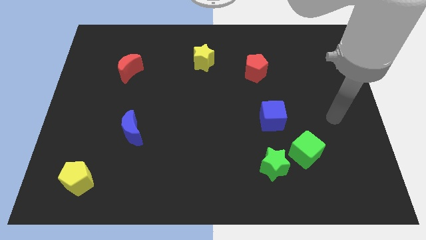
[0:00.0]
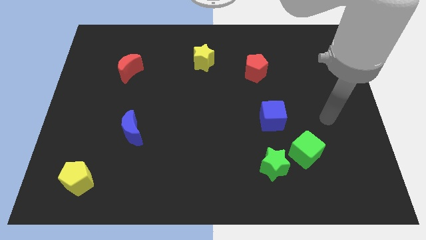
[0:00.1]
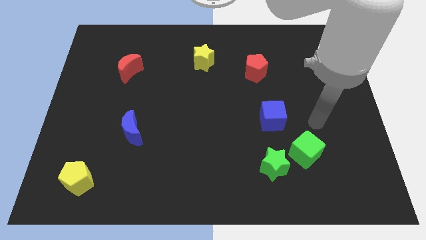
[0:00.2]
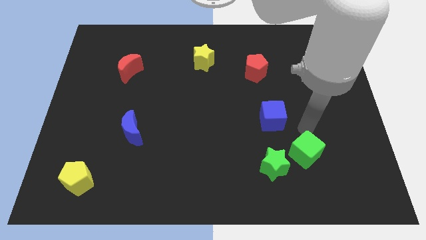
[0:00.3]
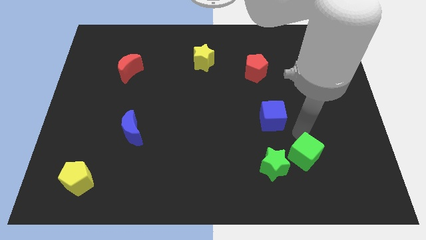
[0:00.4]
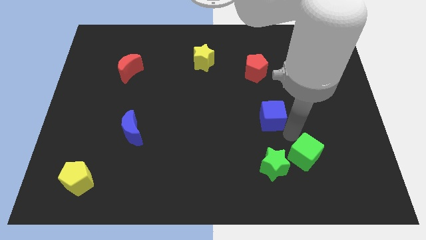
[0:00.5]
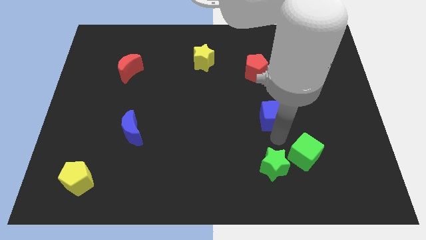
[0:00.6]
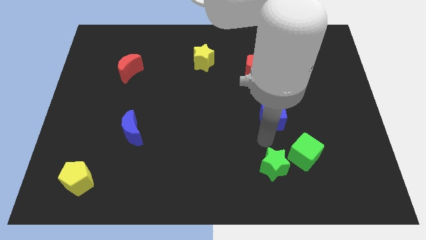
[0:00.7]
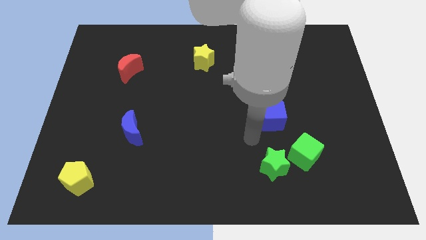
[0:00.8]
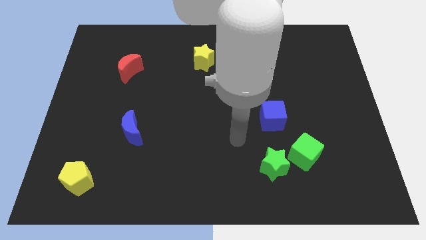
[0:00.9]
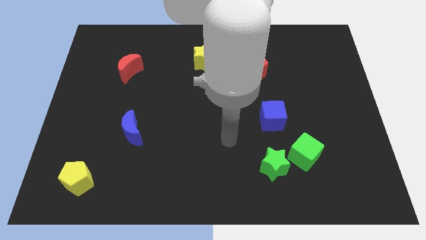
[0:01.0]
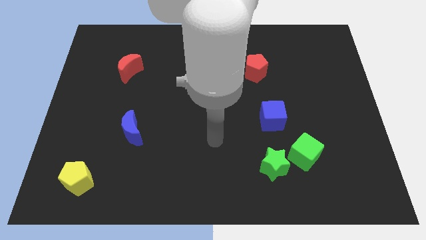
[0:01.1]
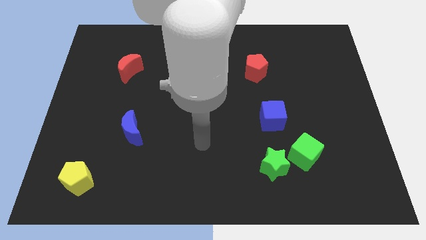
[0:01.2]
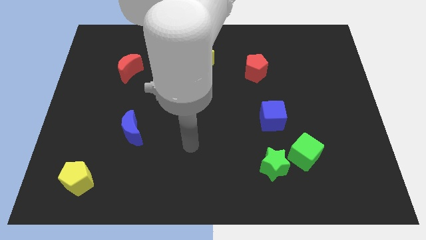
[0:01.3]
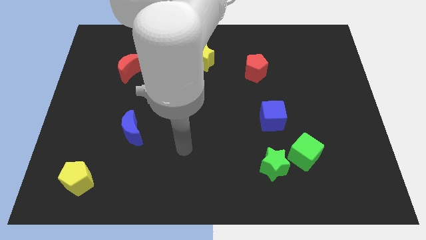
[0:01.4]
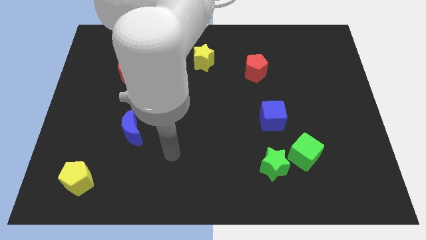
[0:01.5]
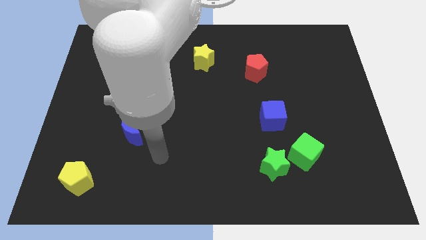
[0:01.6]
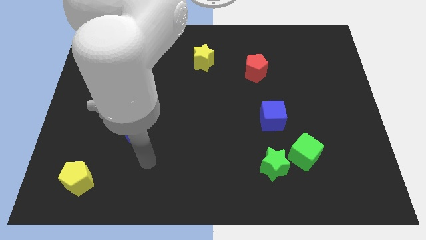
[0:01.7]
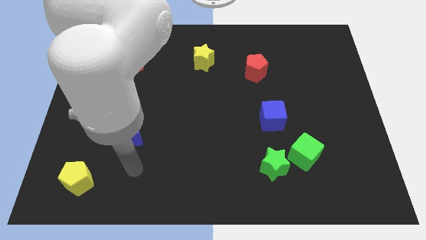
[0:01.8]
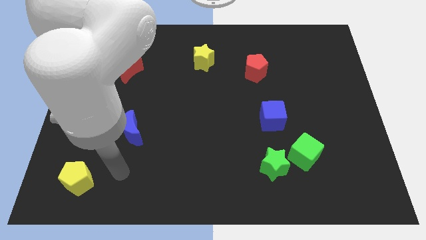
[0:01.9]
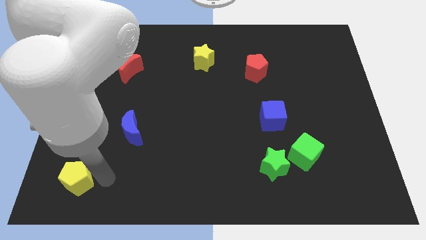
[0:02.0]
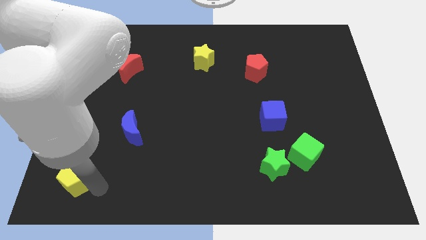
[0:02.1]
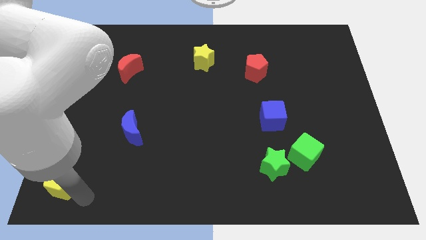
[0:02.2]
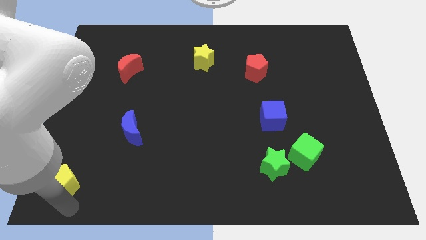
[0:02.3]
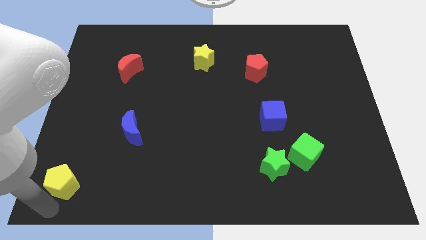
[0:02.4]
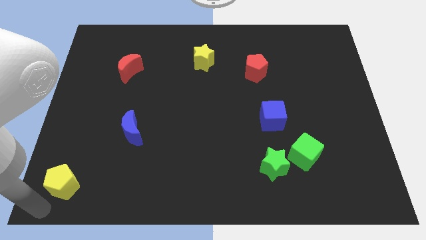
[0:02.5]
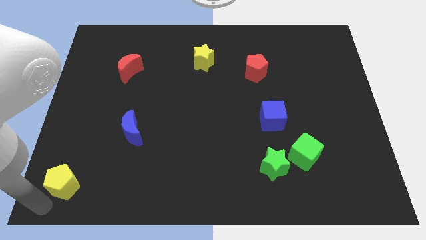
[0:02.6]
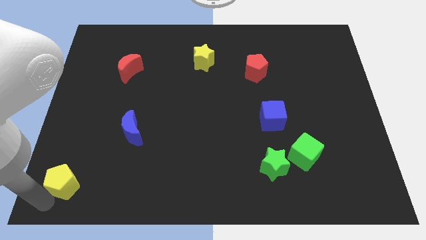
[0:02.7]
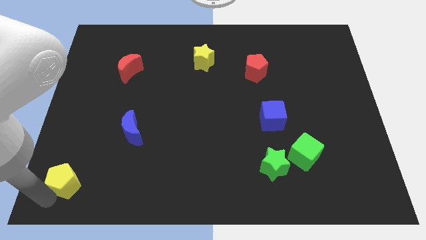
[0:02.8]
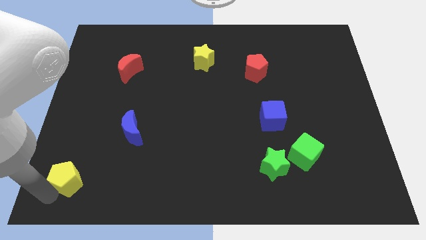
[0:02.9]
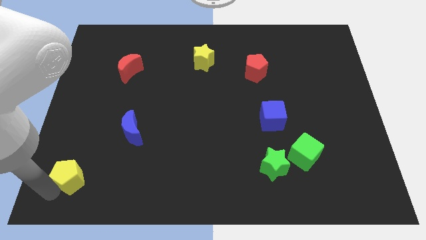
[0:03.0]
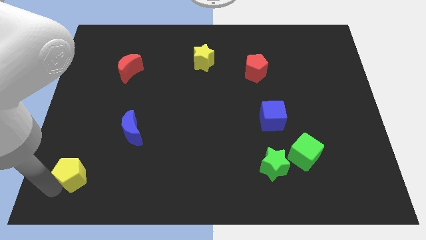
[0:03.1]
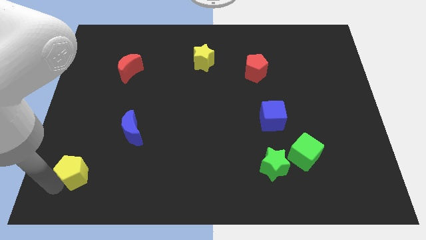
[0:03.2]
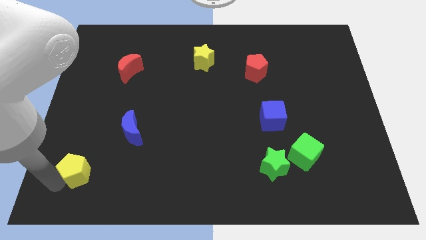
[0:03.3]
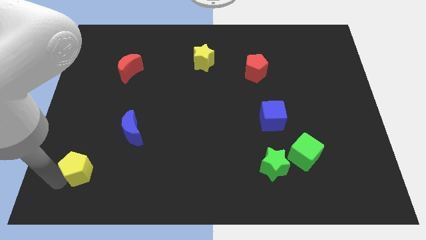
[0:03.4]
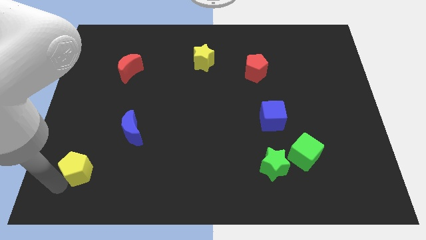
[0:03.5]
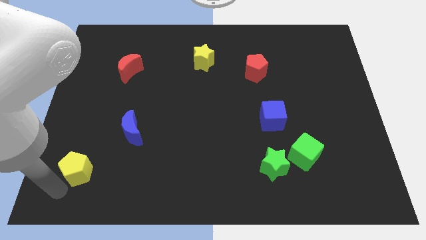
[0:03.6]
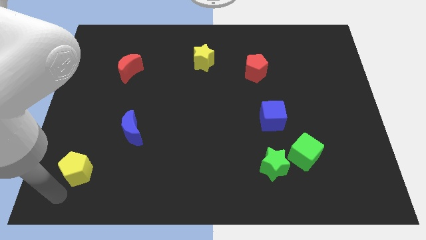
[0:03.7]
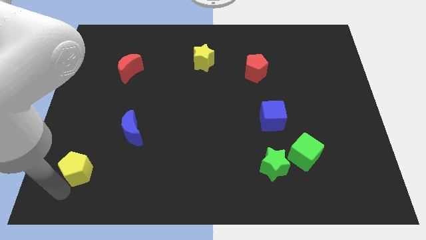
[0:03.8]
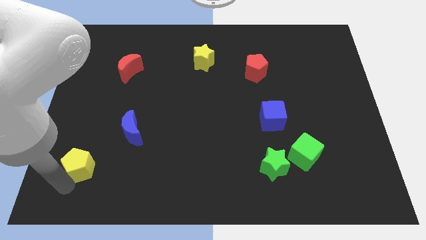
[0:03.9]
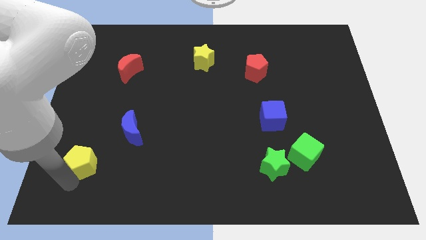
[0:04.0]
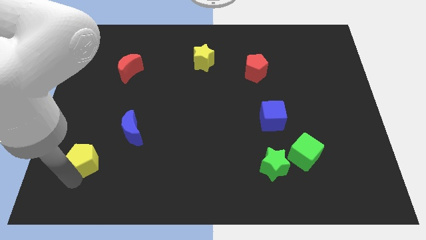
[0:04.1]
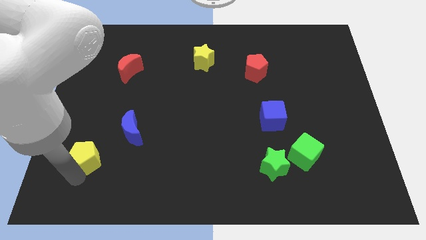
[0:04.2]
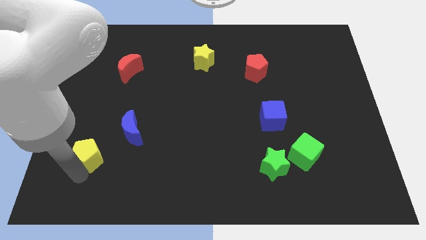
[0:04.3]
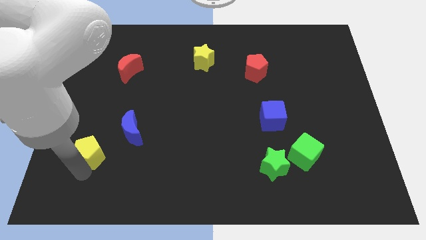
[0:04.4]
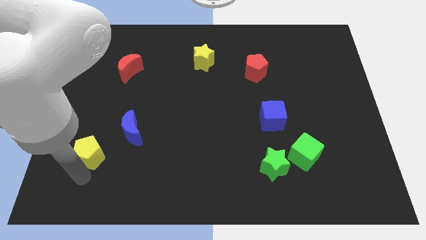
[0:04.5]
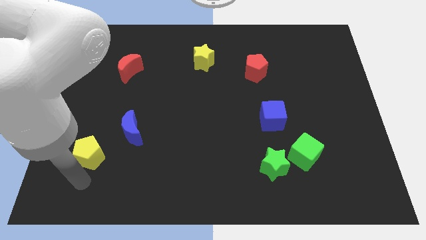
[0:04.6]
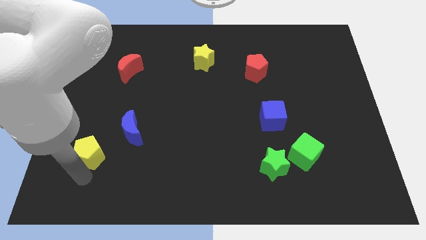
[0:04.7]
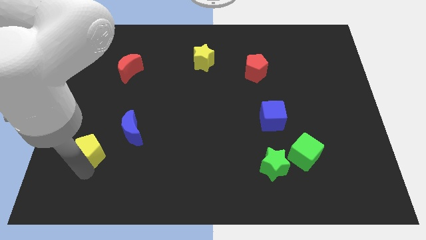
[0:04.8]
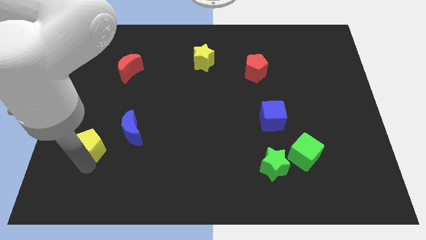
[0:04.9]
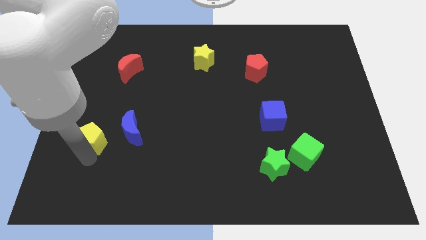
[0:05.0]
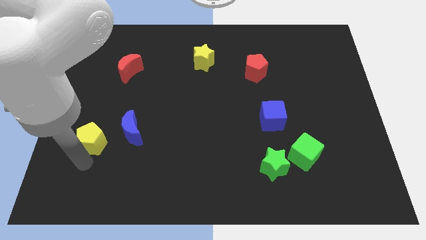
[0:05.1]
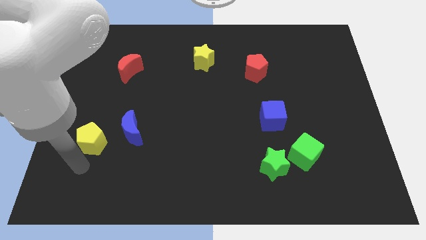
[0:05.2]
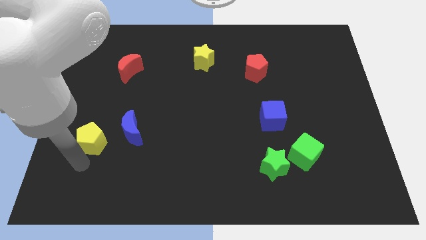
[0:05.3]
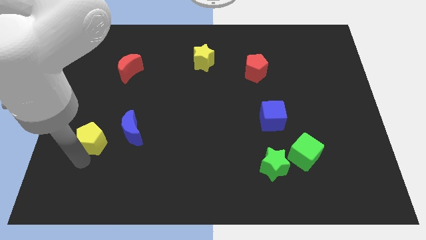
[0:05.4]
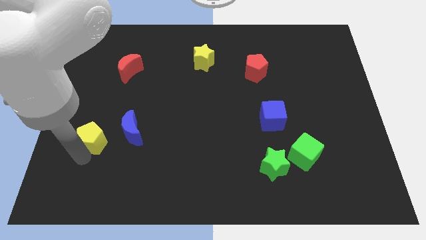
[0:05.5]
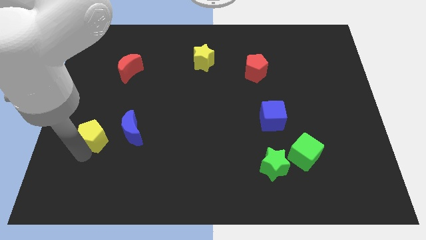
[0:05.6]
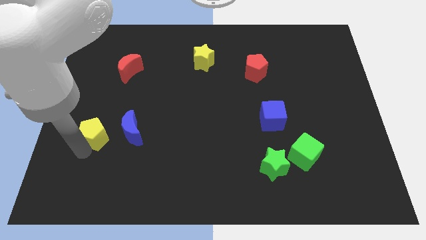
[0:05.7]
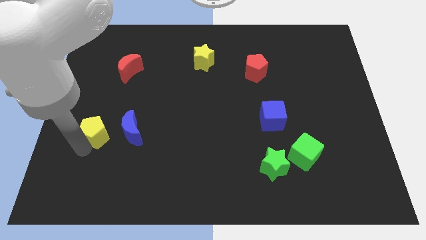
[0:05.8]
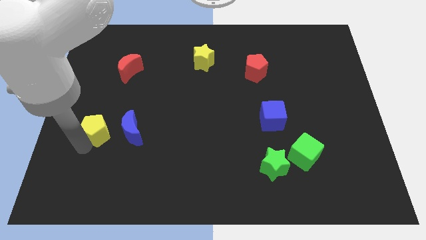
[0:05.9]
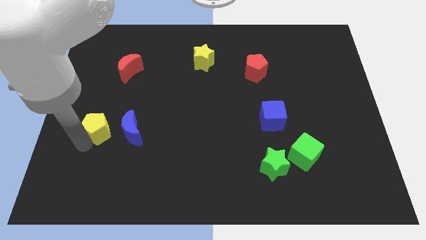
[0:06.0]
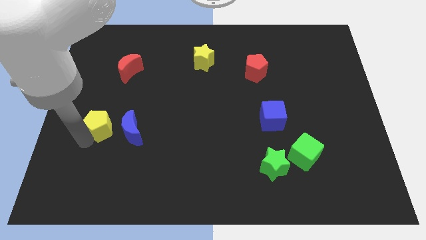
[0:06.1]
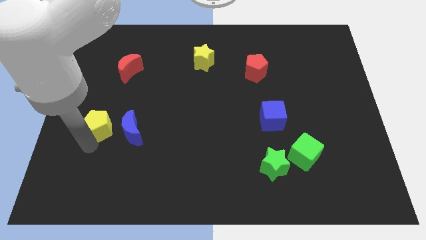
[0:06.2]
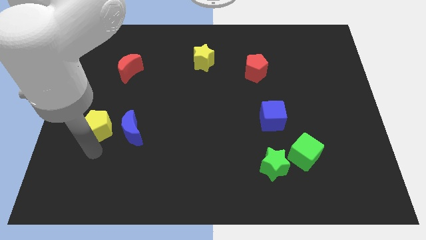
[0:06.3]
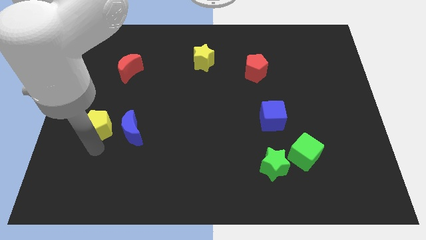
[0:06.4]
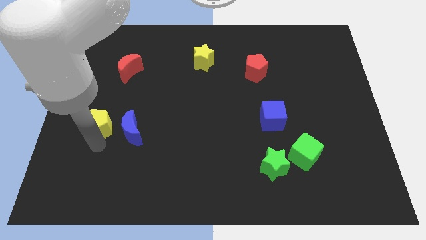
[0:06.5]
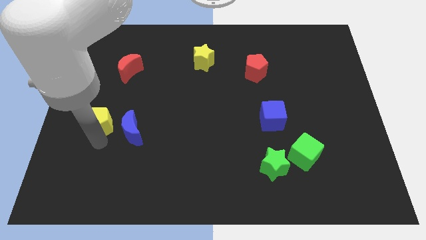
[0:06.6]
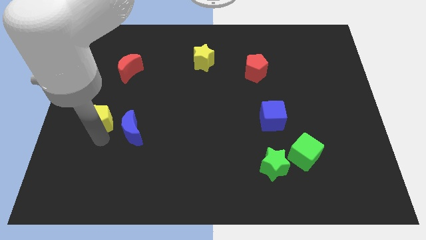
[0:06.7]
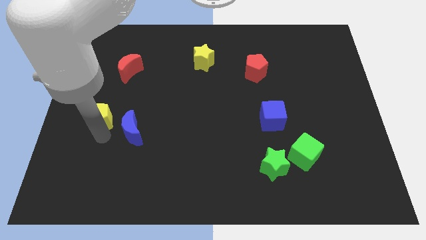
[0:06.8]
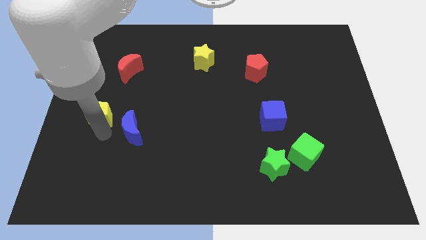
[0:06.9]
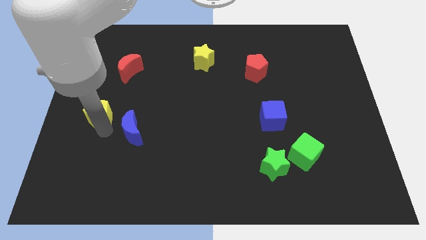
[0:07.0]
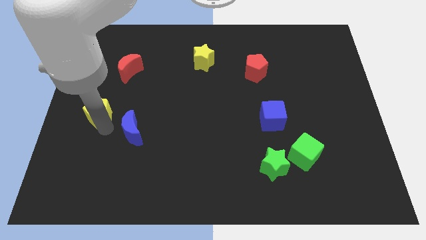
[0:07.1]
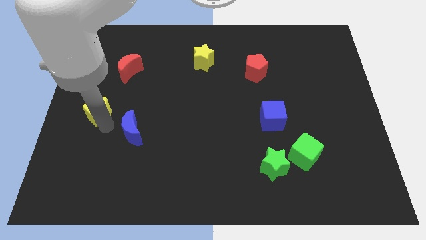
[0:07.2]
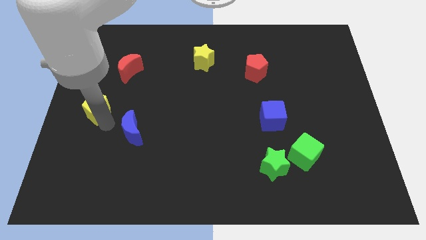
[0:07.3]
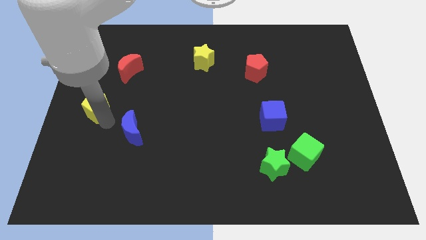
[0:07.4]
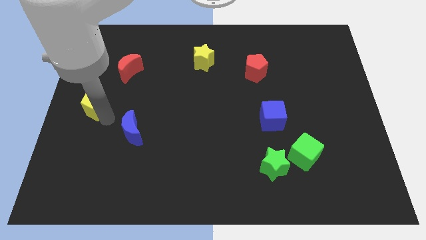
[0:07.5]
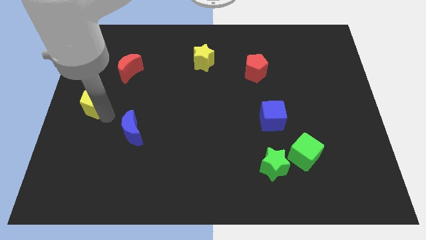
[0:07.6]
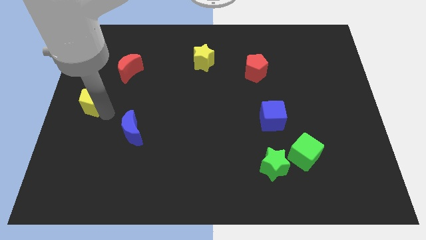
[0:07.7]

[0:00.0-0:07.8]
slide the yellow pentagon upwards
